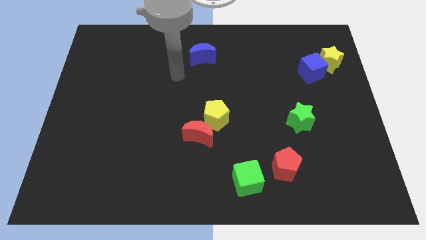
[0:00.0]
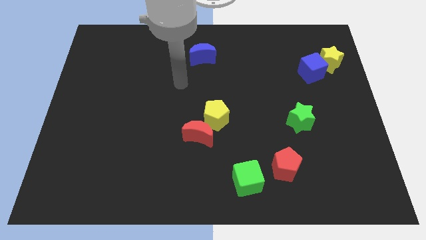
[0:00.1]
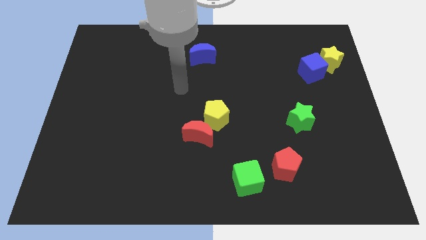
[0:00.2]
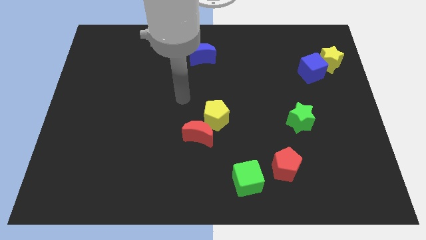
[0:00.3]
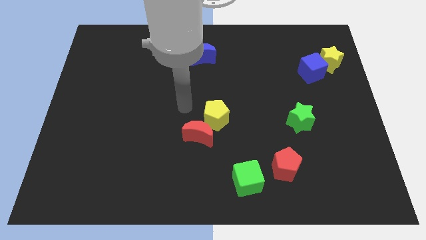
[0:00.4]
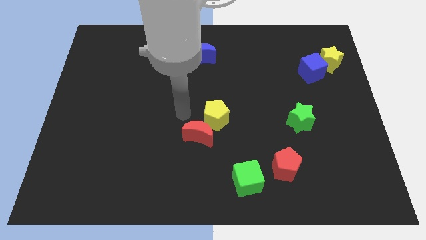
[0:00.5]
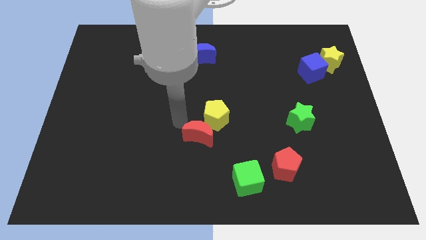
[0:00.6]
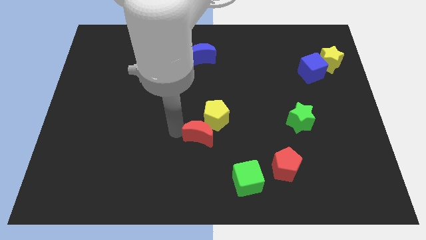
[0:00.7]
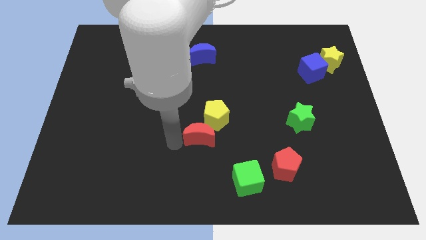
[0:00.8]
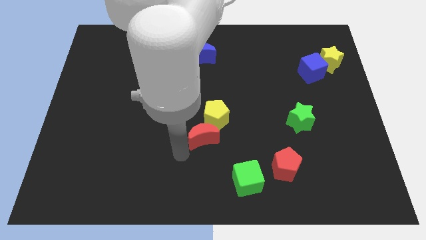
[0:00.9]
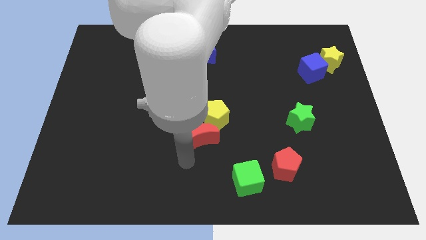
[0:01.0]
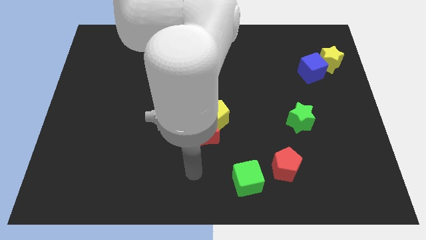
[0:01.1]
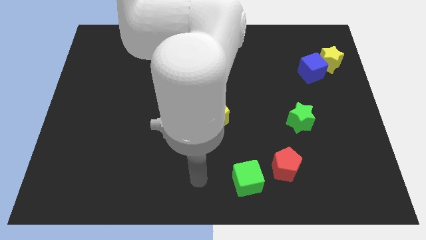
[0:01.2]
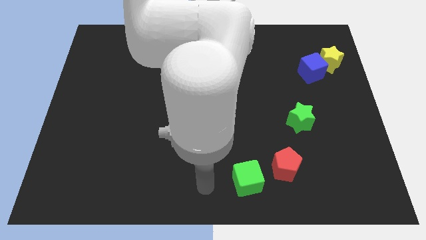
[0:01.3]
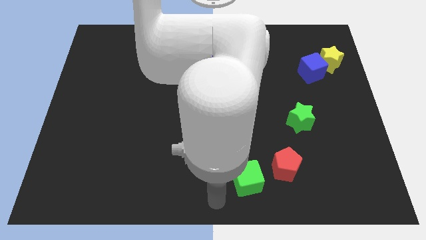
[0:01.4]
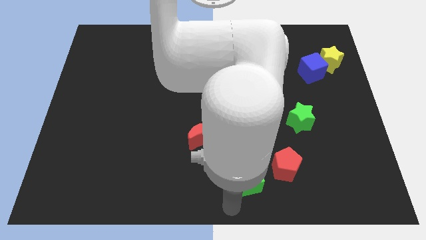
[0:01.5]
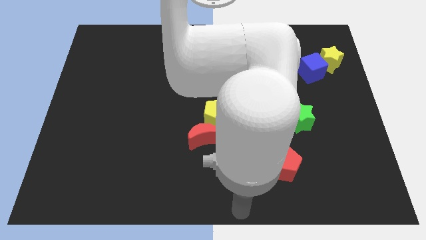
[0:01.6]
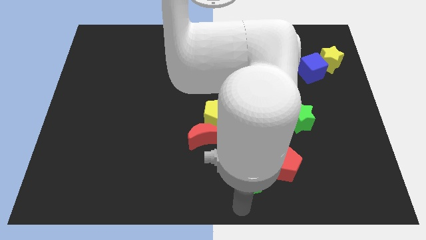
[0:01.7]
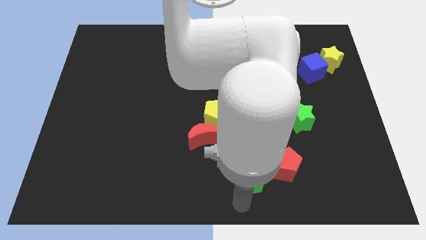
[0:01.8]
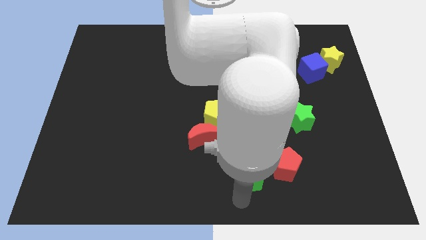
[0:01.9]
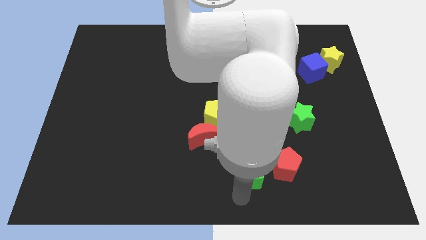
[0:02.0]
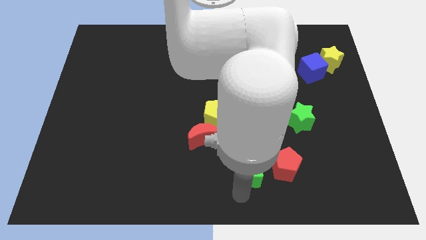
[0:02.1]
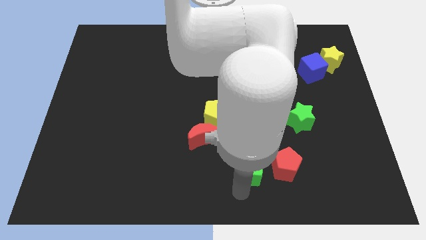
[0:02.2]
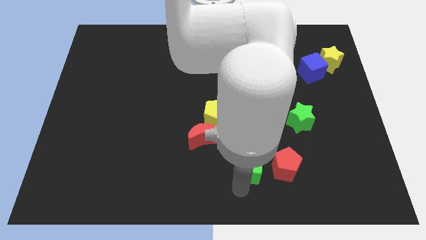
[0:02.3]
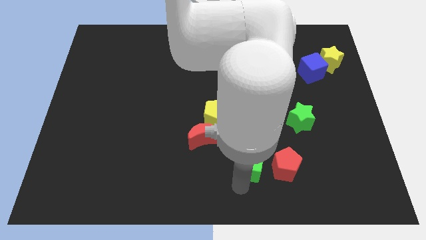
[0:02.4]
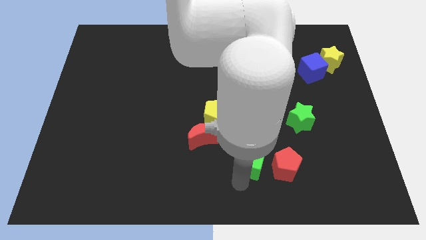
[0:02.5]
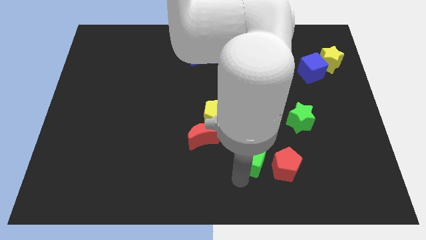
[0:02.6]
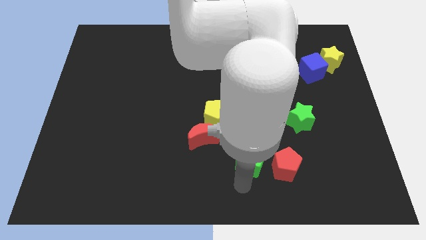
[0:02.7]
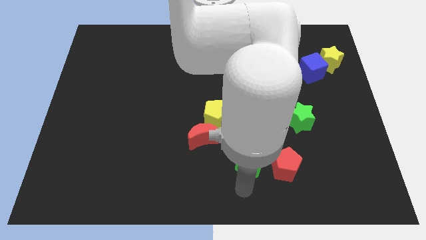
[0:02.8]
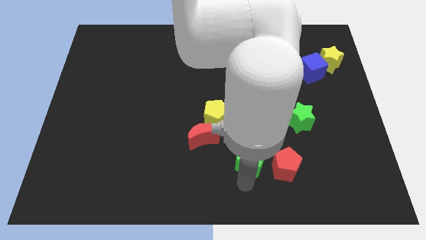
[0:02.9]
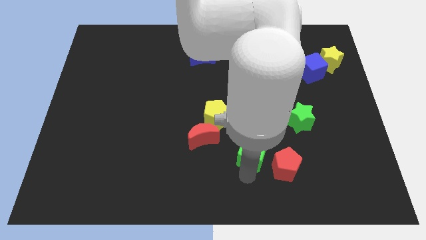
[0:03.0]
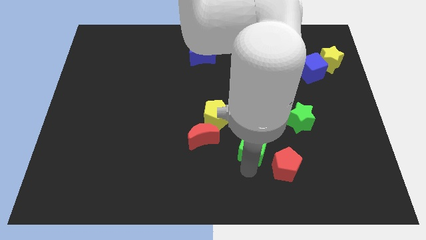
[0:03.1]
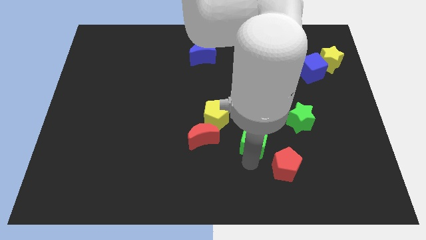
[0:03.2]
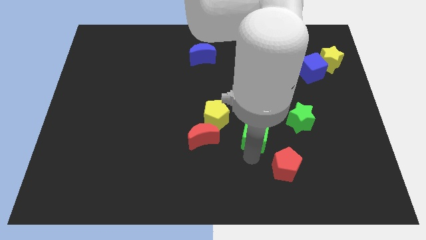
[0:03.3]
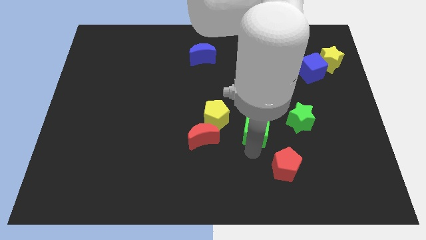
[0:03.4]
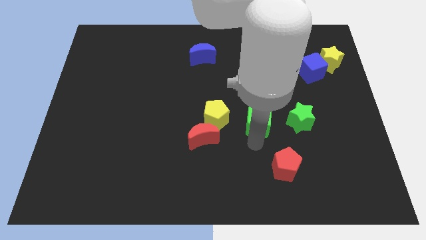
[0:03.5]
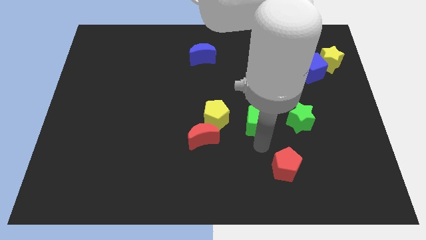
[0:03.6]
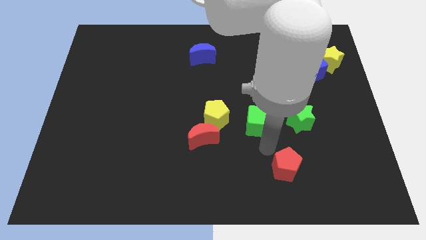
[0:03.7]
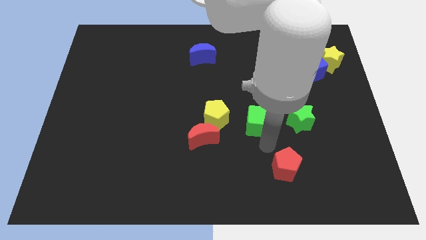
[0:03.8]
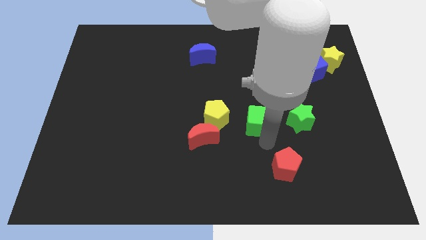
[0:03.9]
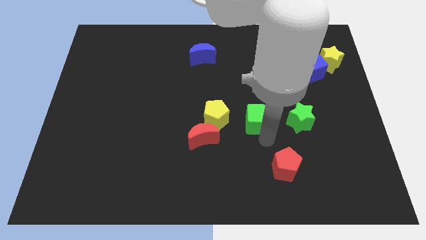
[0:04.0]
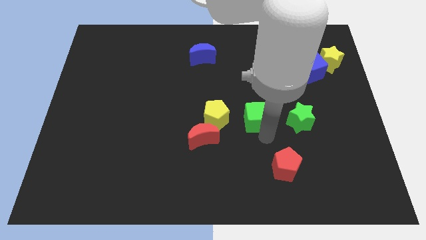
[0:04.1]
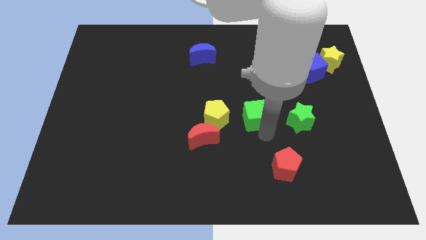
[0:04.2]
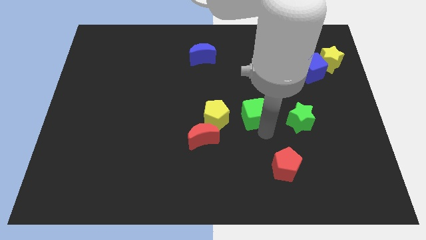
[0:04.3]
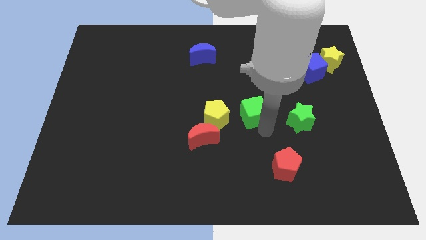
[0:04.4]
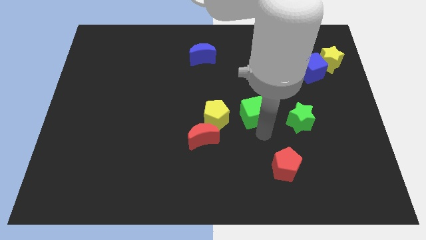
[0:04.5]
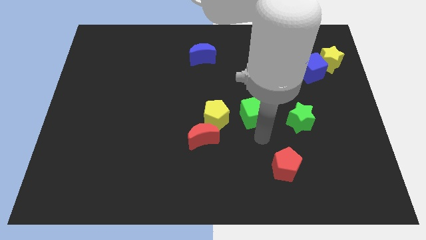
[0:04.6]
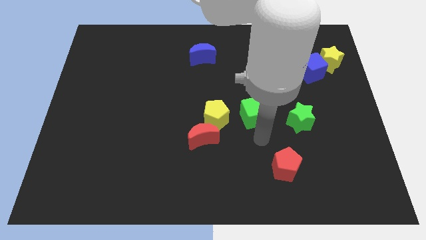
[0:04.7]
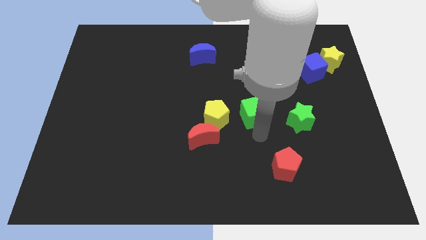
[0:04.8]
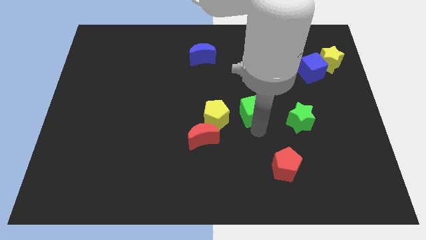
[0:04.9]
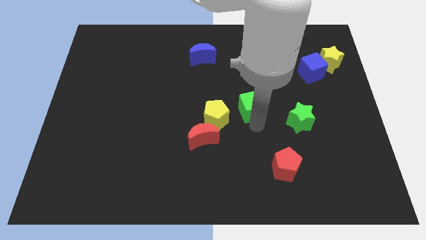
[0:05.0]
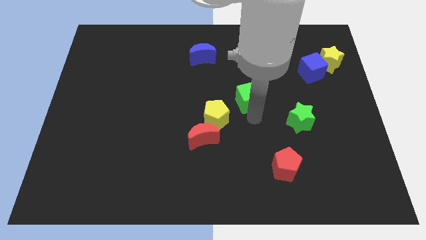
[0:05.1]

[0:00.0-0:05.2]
slide the green cube up

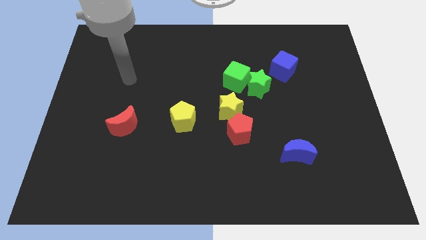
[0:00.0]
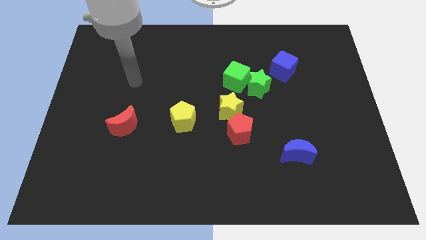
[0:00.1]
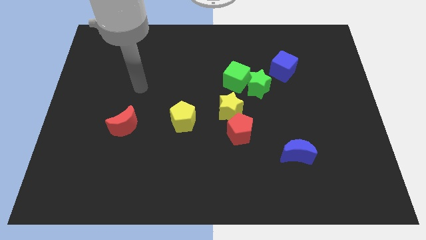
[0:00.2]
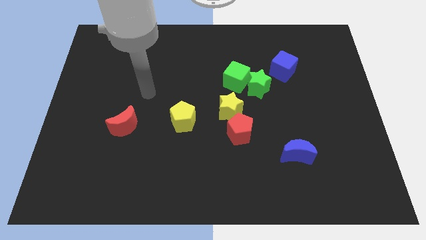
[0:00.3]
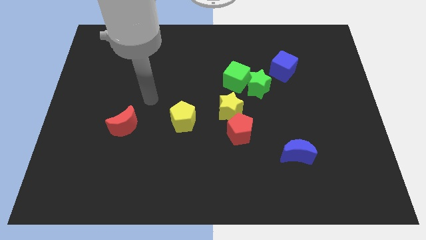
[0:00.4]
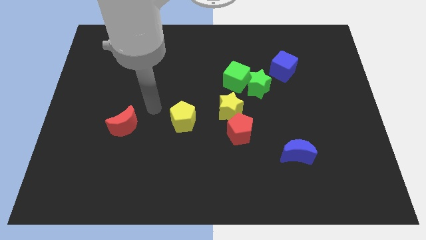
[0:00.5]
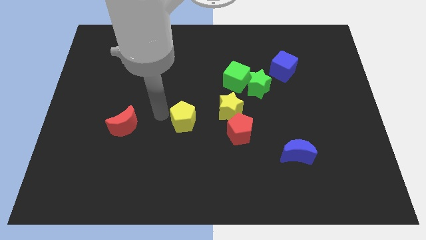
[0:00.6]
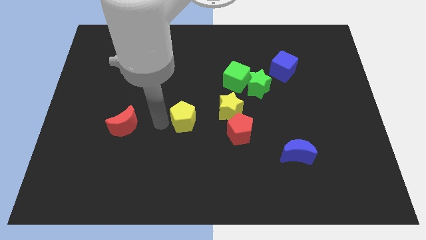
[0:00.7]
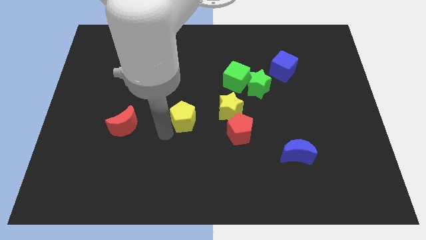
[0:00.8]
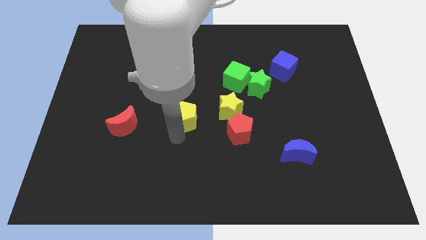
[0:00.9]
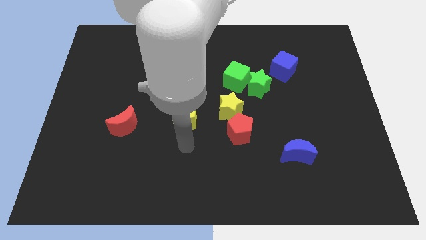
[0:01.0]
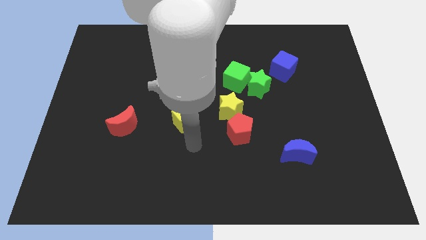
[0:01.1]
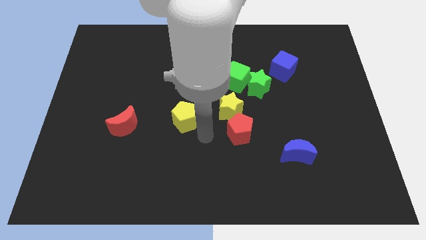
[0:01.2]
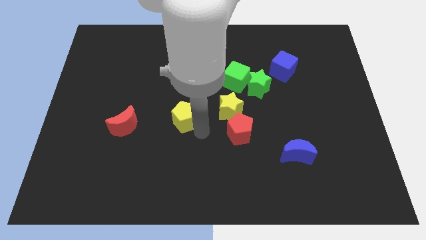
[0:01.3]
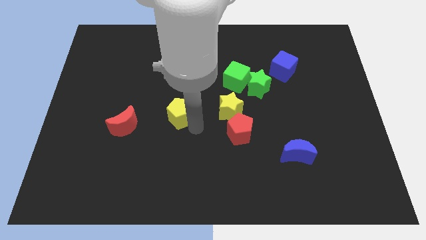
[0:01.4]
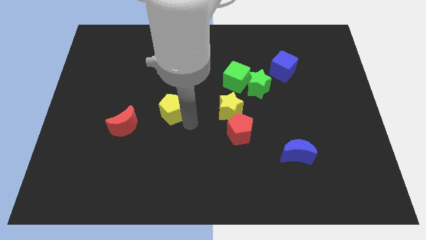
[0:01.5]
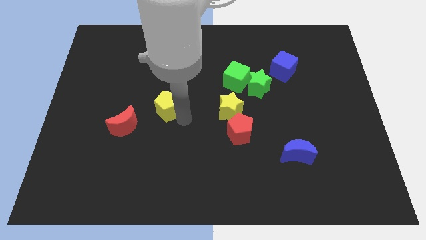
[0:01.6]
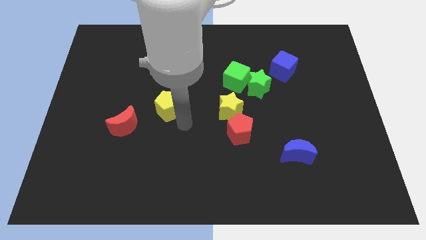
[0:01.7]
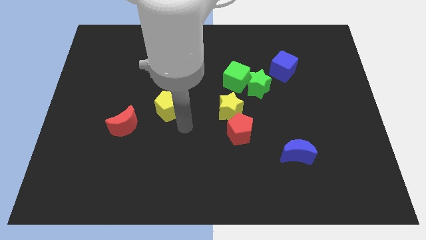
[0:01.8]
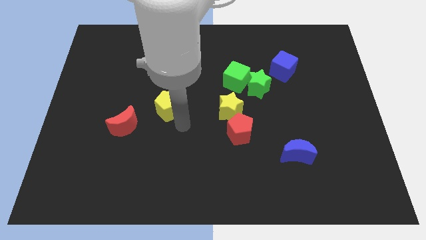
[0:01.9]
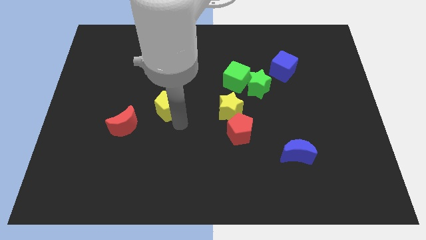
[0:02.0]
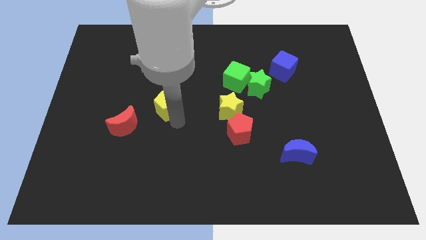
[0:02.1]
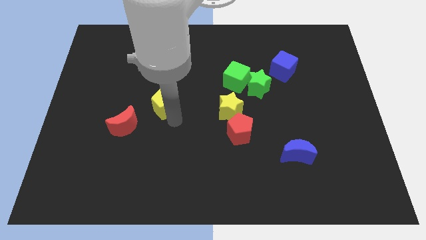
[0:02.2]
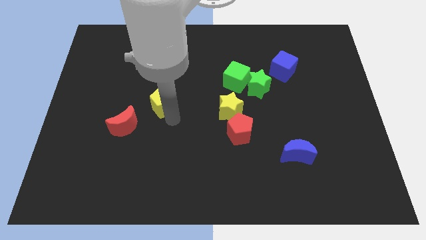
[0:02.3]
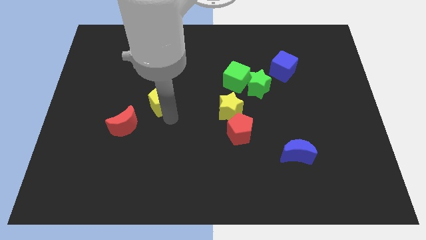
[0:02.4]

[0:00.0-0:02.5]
slightly slide the yellow pentagon upwards and then left

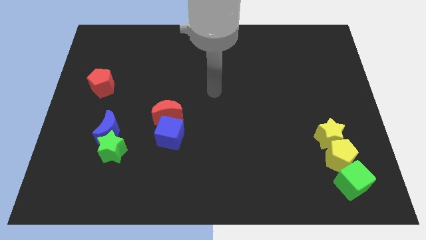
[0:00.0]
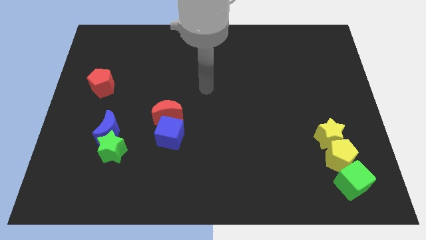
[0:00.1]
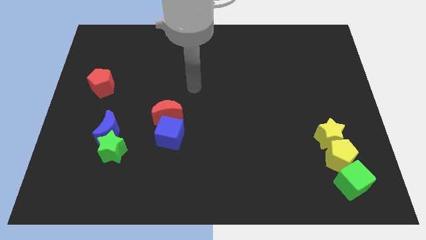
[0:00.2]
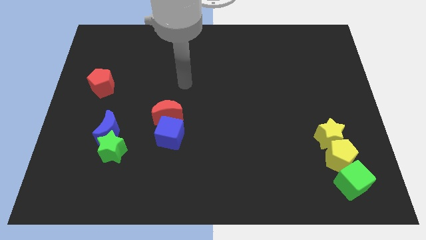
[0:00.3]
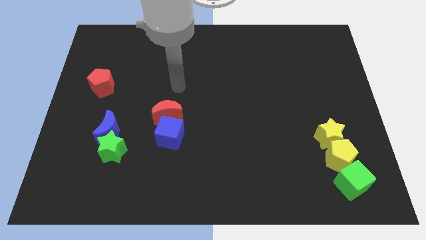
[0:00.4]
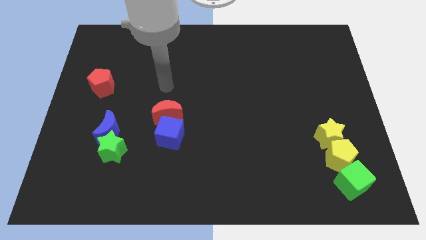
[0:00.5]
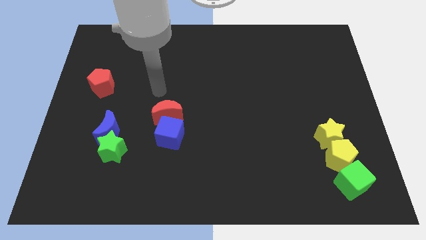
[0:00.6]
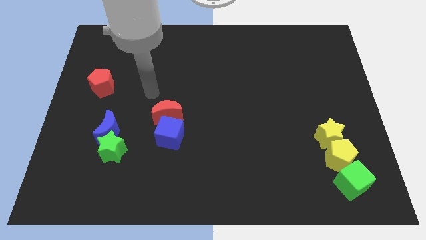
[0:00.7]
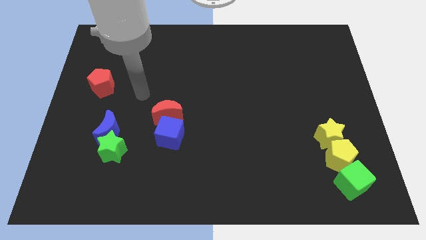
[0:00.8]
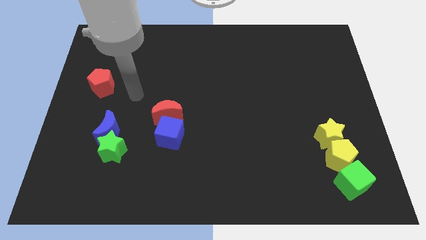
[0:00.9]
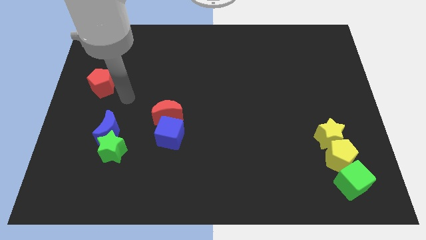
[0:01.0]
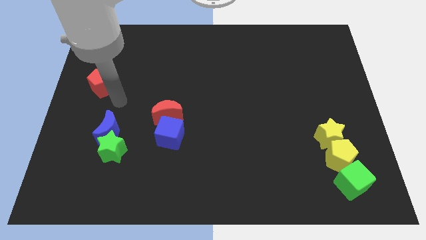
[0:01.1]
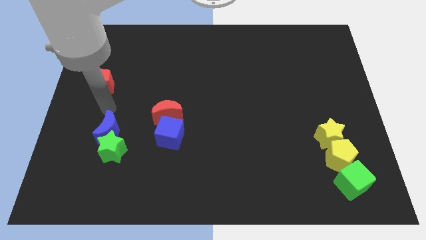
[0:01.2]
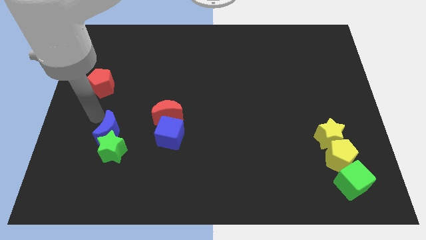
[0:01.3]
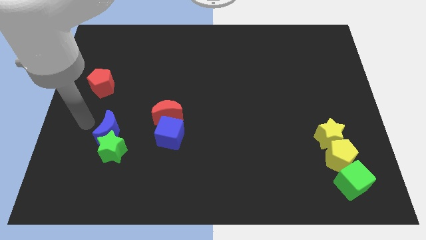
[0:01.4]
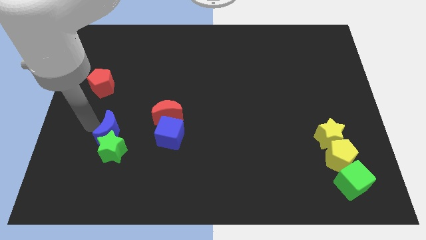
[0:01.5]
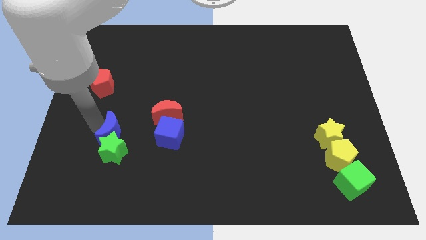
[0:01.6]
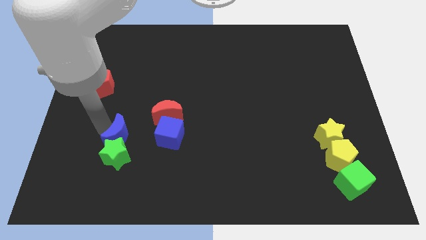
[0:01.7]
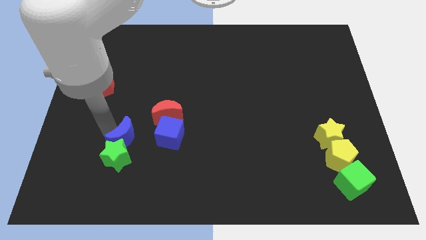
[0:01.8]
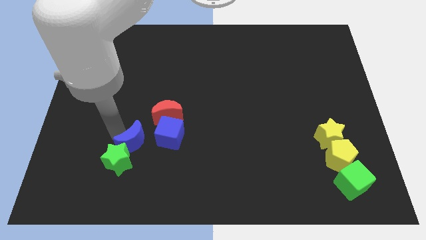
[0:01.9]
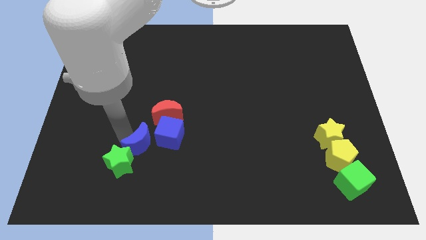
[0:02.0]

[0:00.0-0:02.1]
slightly slide the blue moon right
